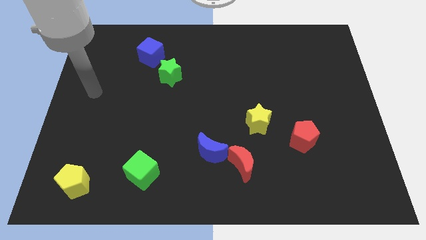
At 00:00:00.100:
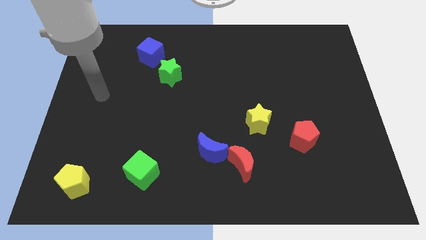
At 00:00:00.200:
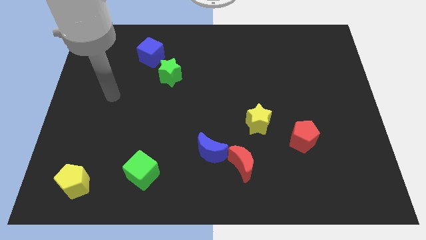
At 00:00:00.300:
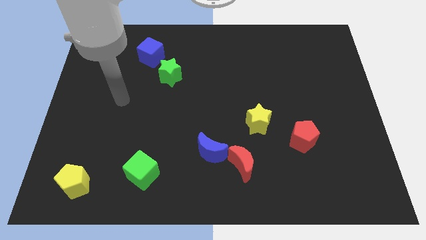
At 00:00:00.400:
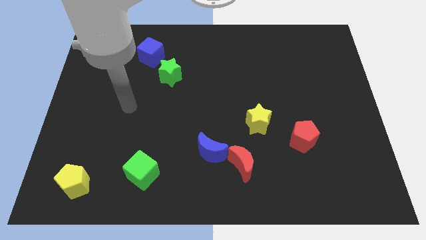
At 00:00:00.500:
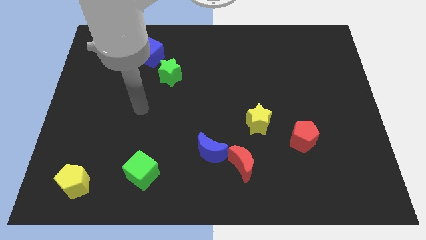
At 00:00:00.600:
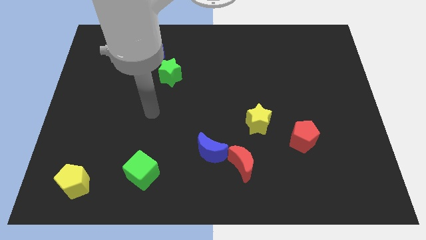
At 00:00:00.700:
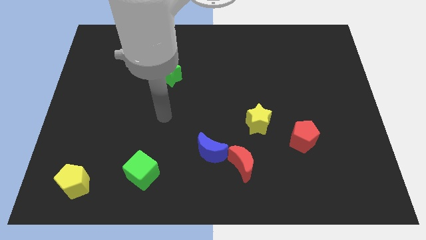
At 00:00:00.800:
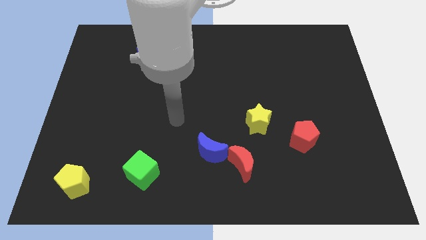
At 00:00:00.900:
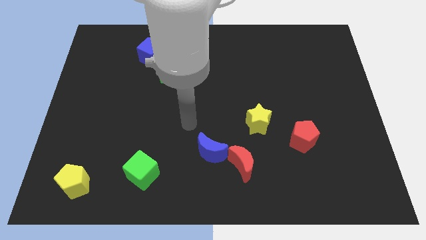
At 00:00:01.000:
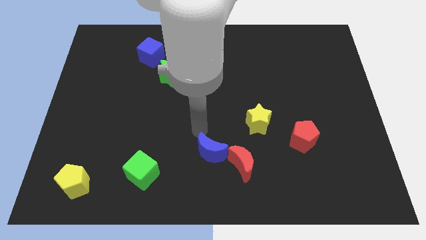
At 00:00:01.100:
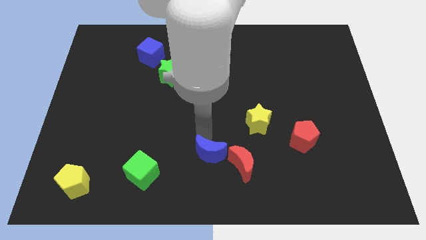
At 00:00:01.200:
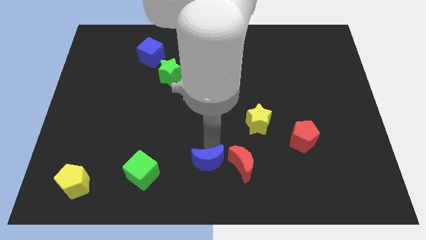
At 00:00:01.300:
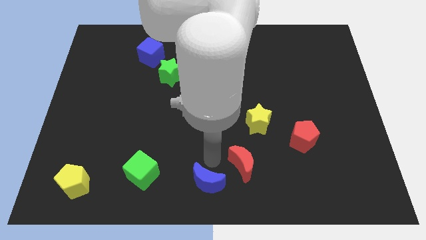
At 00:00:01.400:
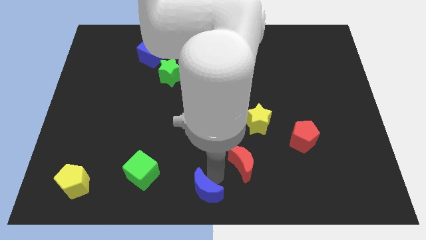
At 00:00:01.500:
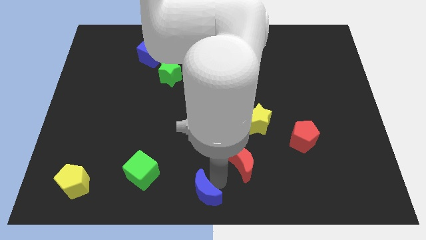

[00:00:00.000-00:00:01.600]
separate the red moon from the blue moon

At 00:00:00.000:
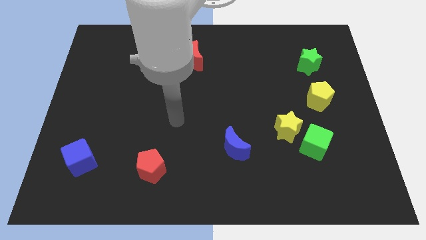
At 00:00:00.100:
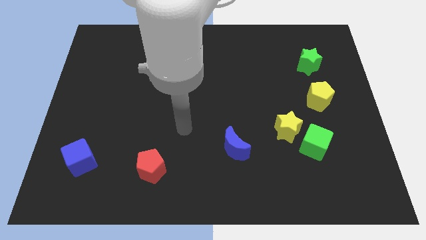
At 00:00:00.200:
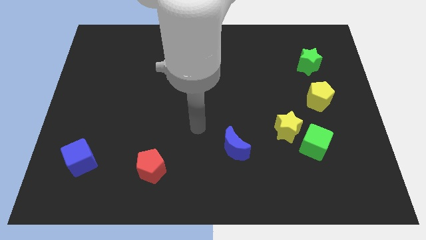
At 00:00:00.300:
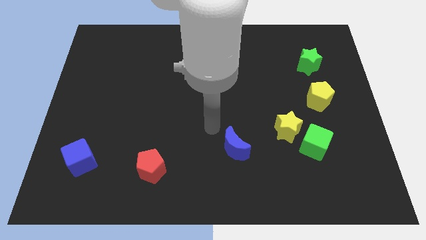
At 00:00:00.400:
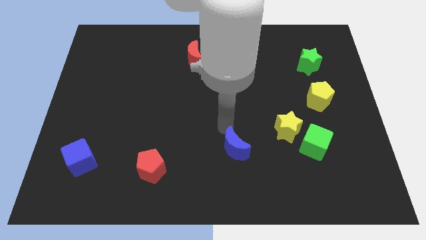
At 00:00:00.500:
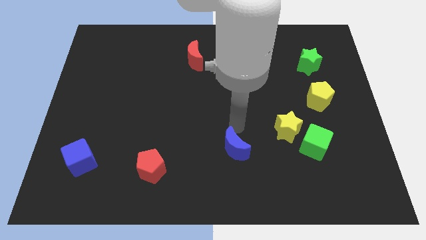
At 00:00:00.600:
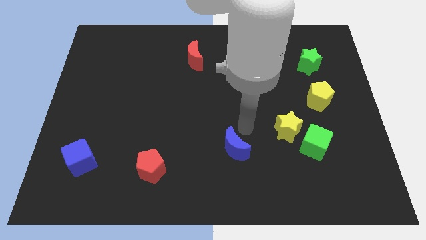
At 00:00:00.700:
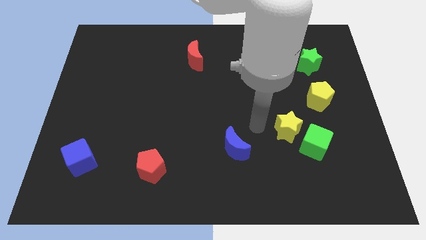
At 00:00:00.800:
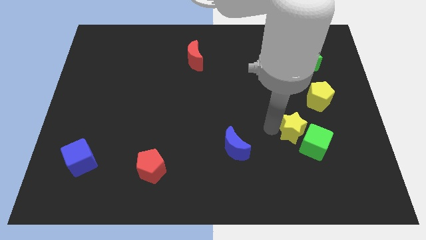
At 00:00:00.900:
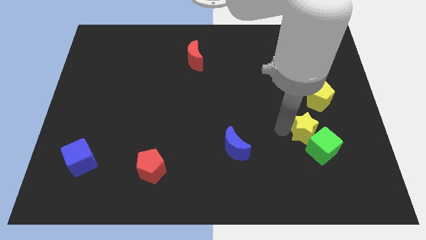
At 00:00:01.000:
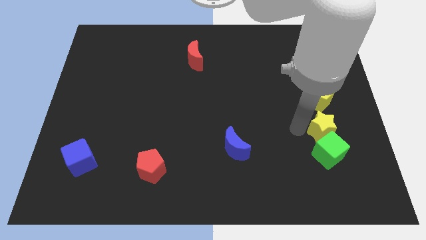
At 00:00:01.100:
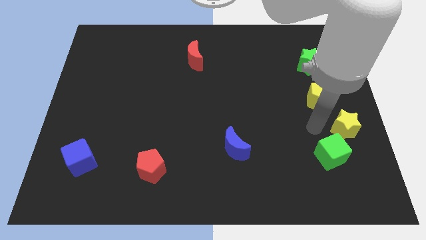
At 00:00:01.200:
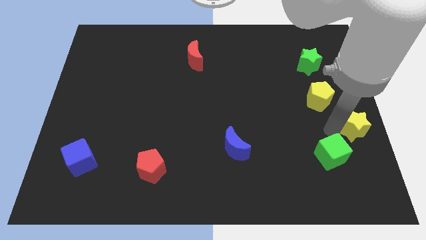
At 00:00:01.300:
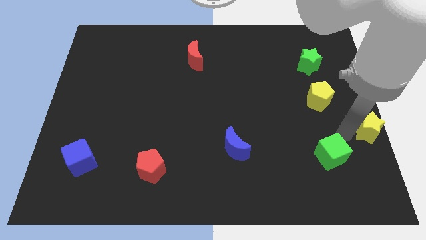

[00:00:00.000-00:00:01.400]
pull the green cube apart from the yellow star

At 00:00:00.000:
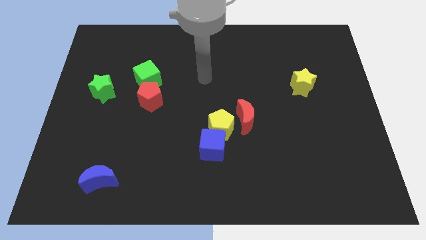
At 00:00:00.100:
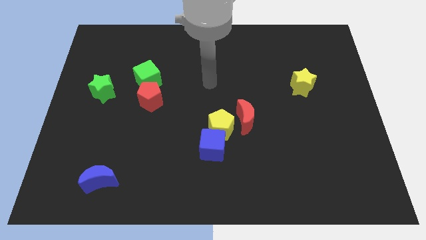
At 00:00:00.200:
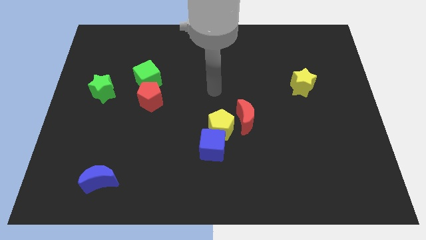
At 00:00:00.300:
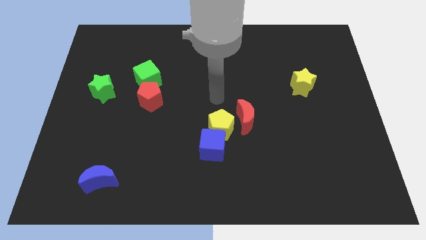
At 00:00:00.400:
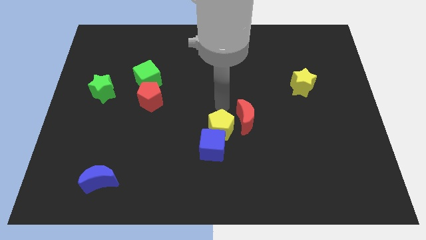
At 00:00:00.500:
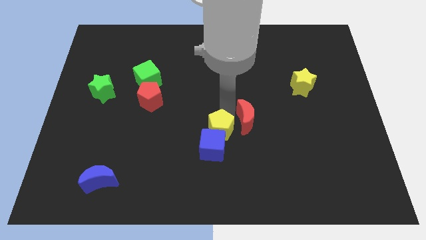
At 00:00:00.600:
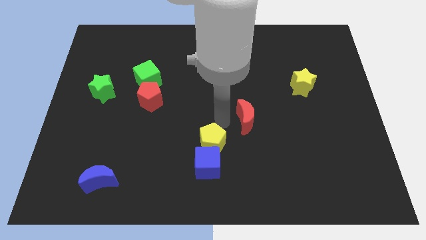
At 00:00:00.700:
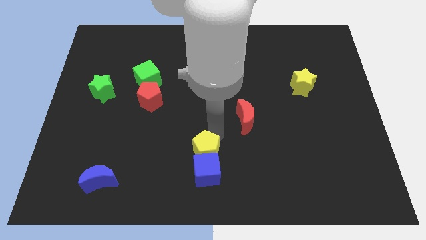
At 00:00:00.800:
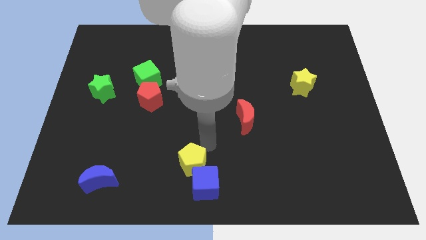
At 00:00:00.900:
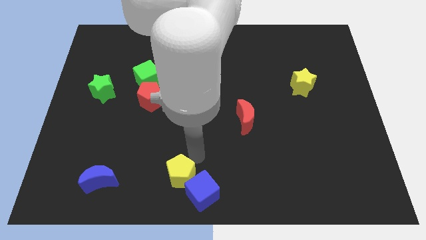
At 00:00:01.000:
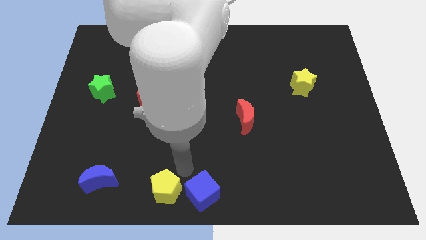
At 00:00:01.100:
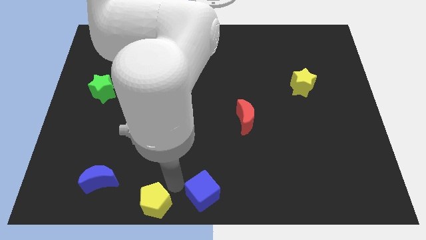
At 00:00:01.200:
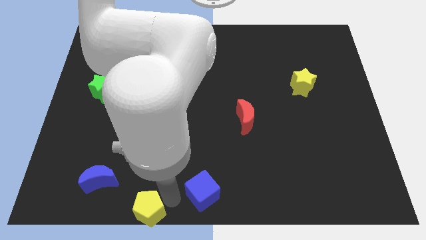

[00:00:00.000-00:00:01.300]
separate the blue cube from the yellow pentagon

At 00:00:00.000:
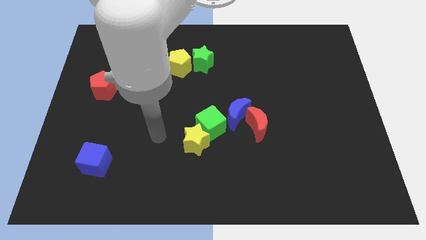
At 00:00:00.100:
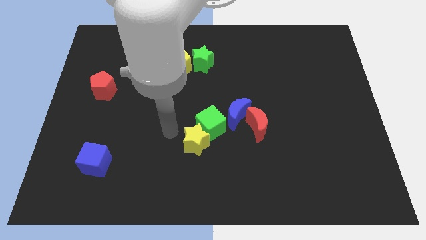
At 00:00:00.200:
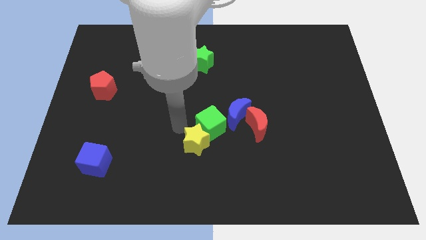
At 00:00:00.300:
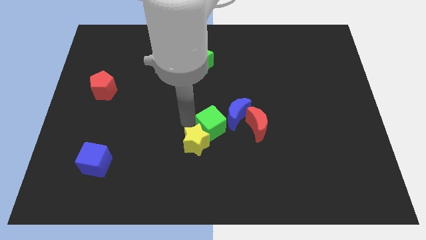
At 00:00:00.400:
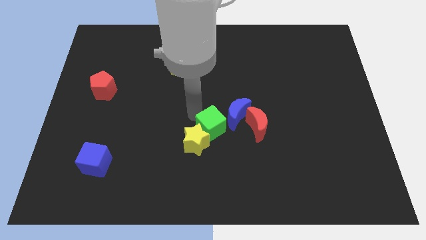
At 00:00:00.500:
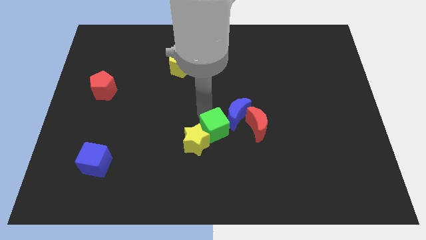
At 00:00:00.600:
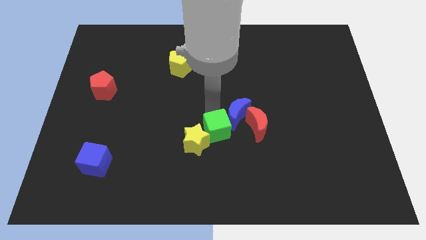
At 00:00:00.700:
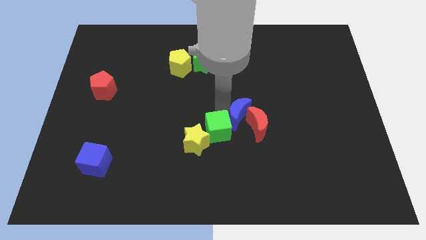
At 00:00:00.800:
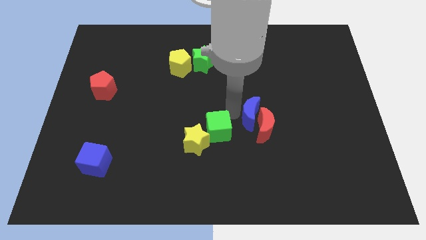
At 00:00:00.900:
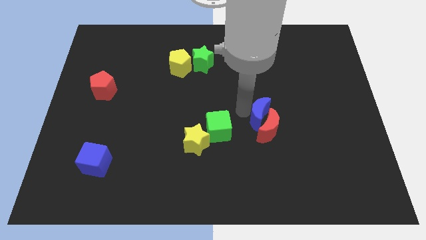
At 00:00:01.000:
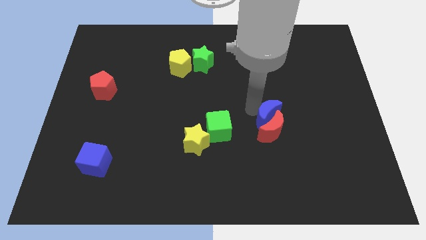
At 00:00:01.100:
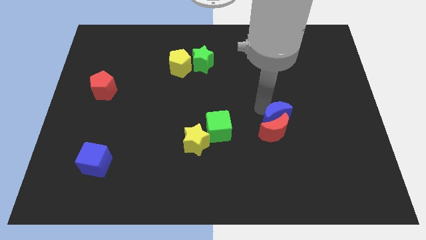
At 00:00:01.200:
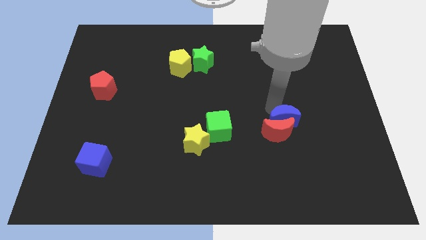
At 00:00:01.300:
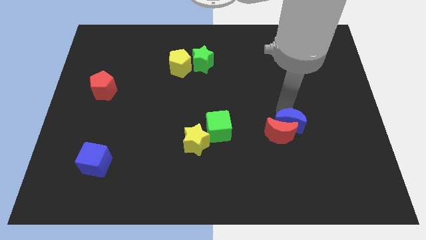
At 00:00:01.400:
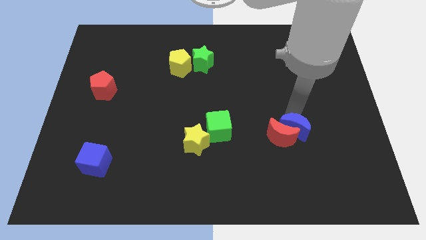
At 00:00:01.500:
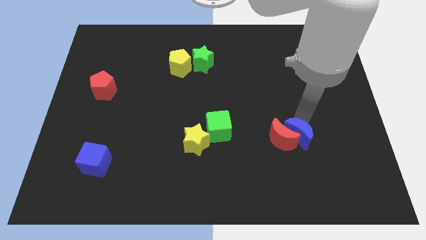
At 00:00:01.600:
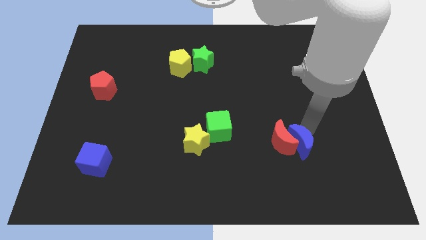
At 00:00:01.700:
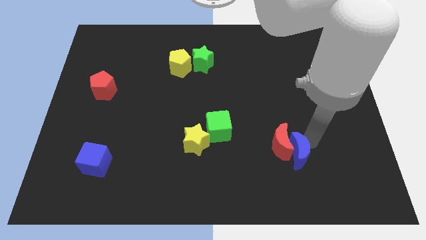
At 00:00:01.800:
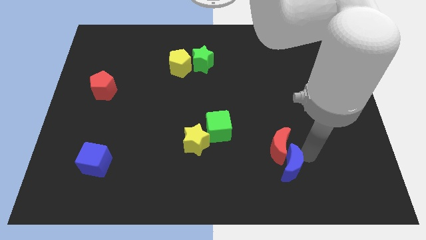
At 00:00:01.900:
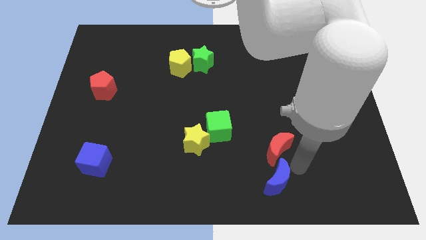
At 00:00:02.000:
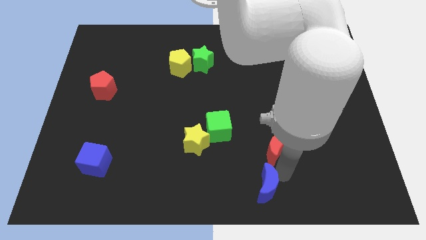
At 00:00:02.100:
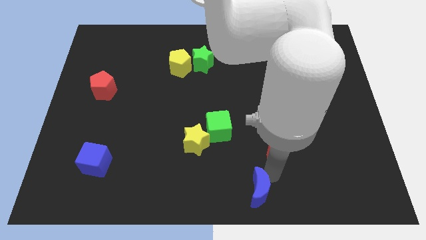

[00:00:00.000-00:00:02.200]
pull the red moon apart from the blue moon

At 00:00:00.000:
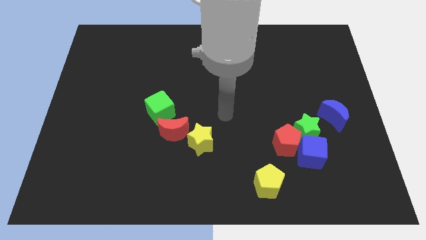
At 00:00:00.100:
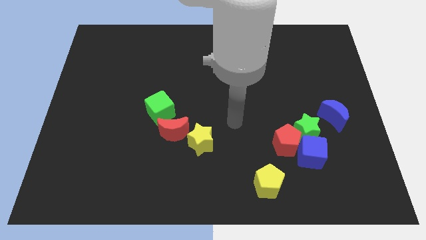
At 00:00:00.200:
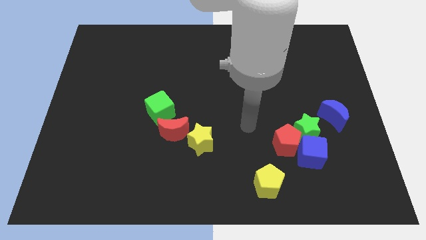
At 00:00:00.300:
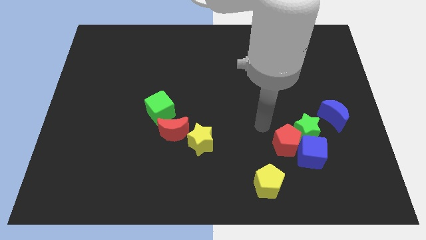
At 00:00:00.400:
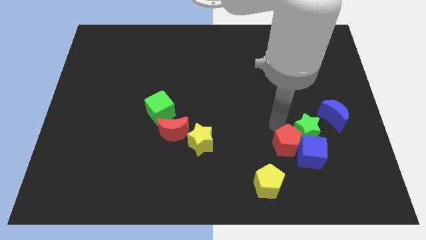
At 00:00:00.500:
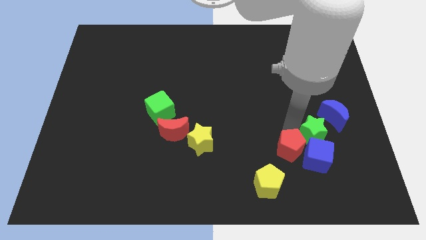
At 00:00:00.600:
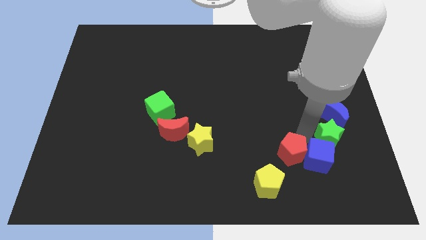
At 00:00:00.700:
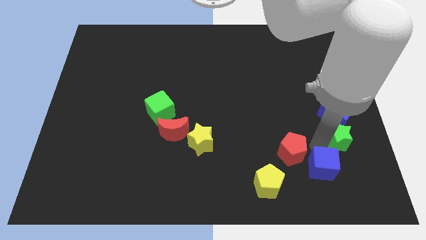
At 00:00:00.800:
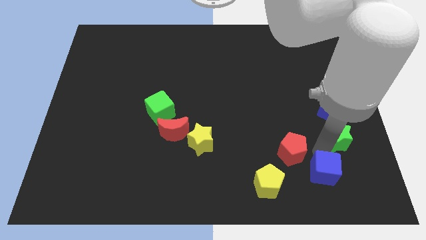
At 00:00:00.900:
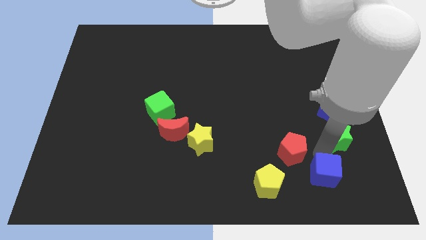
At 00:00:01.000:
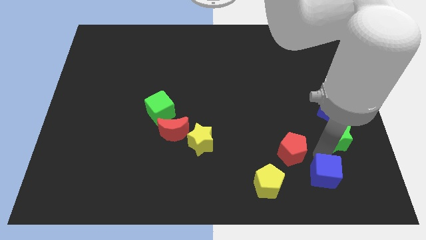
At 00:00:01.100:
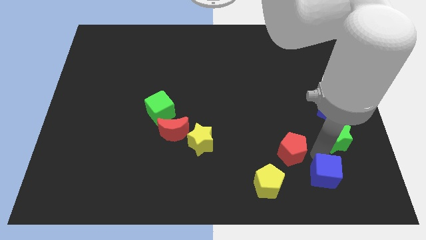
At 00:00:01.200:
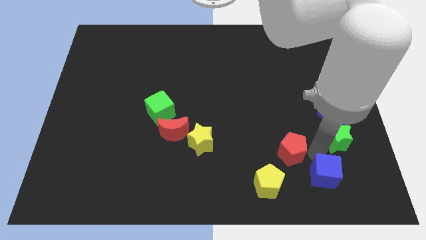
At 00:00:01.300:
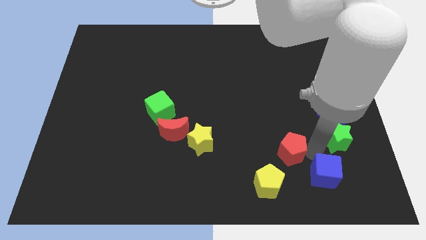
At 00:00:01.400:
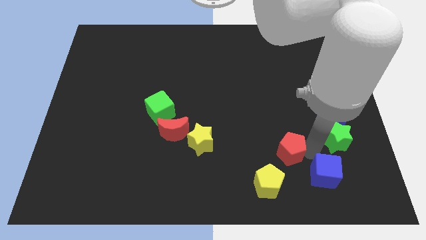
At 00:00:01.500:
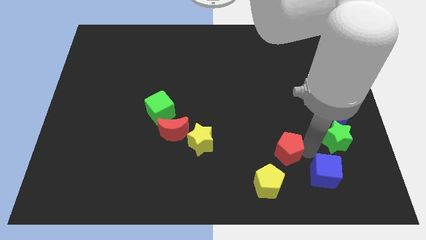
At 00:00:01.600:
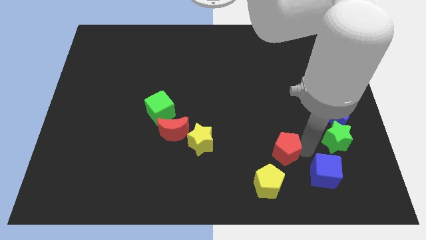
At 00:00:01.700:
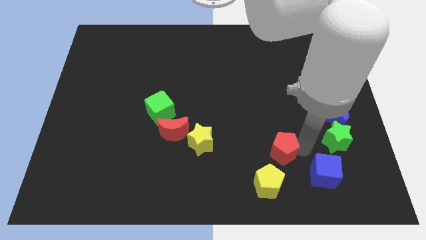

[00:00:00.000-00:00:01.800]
move the red pentagon away from the green star and blue cube

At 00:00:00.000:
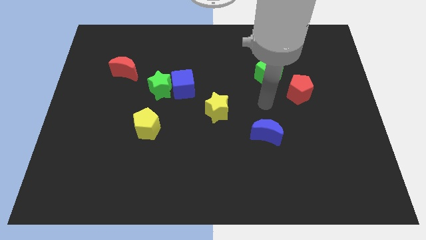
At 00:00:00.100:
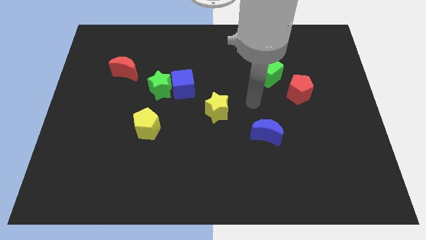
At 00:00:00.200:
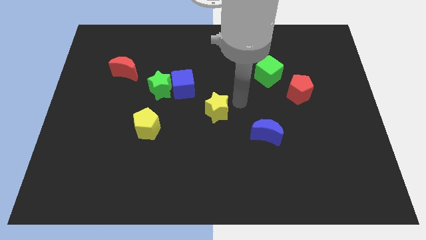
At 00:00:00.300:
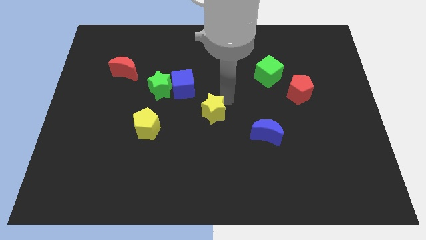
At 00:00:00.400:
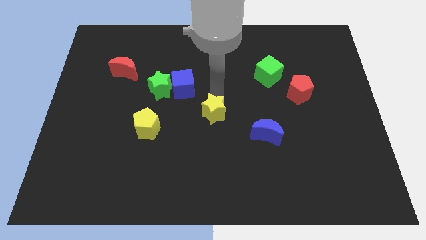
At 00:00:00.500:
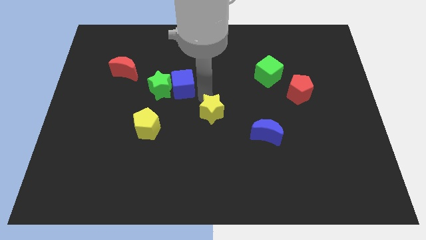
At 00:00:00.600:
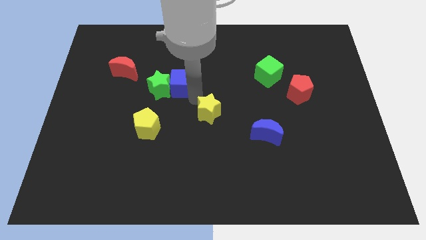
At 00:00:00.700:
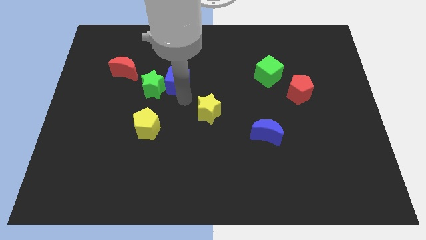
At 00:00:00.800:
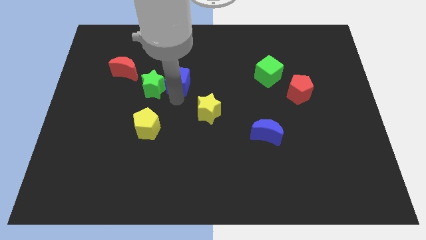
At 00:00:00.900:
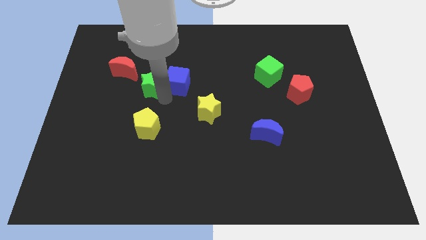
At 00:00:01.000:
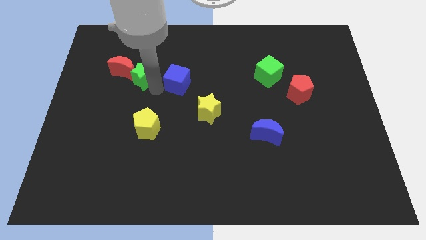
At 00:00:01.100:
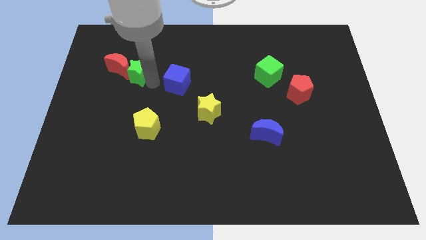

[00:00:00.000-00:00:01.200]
move the blue cube away from the green star
